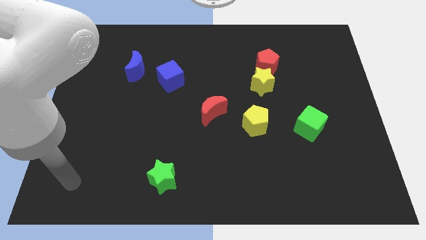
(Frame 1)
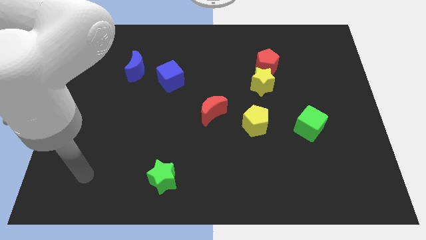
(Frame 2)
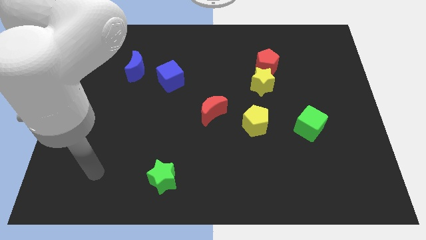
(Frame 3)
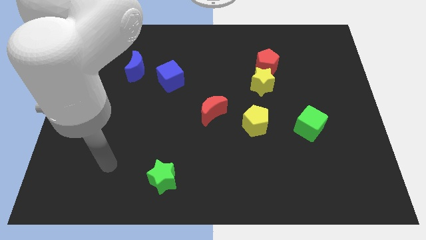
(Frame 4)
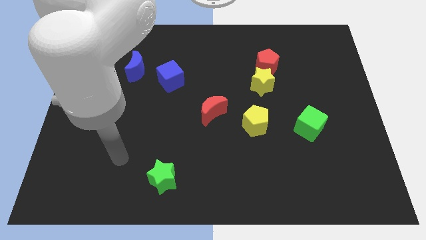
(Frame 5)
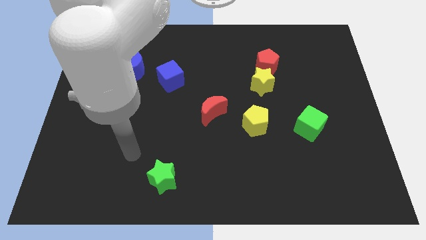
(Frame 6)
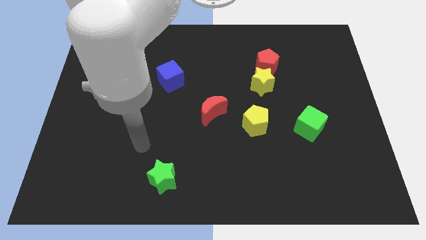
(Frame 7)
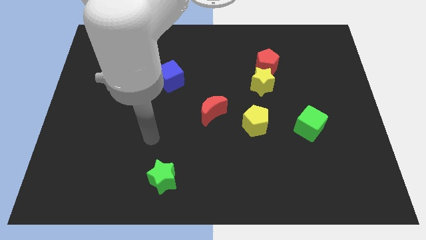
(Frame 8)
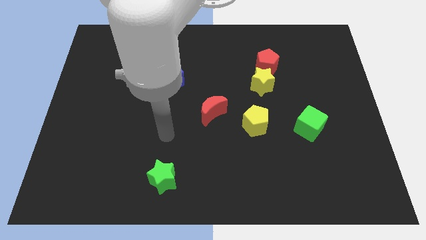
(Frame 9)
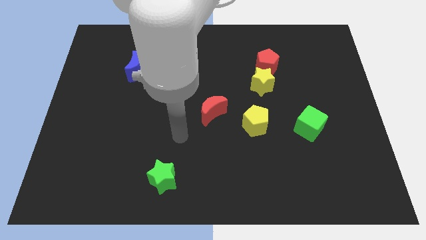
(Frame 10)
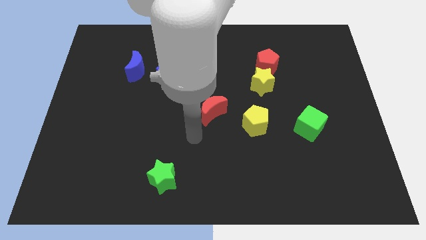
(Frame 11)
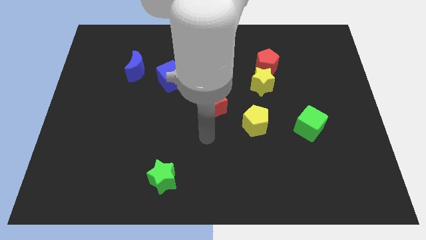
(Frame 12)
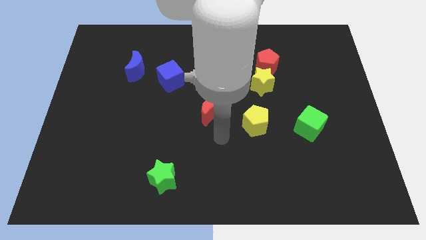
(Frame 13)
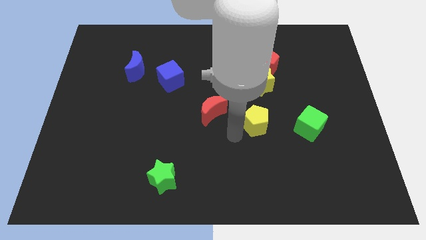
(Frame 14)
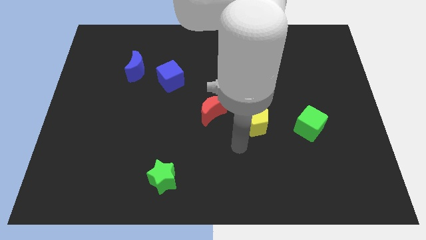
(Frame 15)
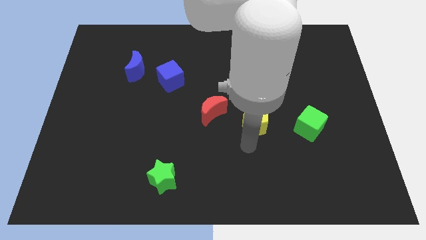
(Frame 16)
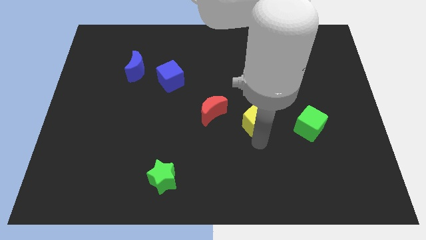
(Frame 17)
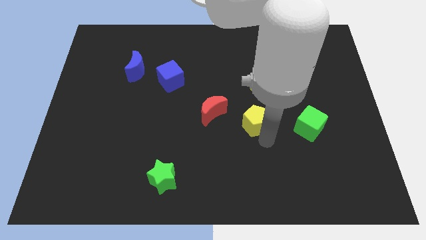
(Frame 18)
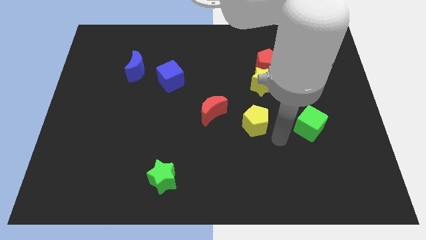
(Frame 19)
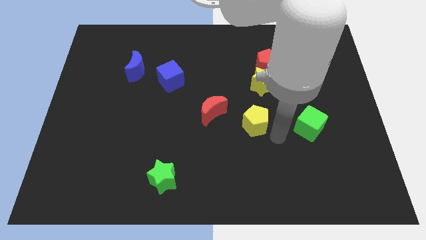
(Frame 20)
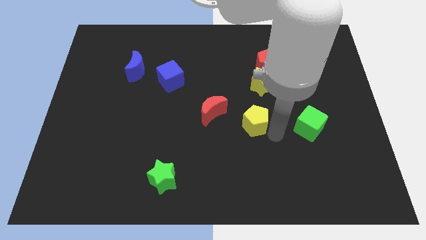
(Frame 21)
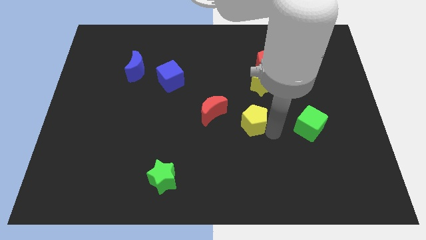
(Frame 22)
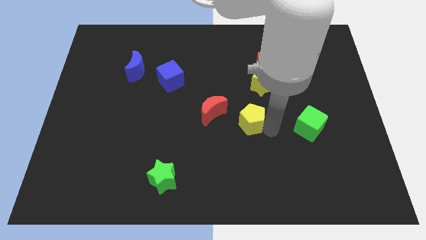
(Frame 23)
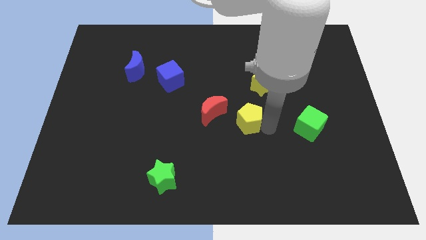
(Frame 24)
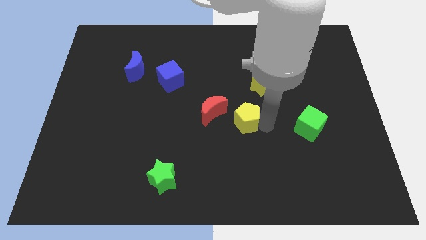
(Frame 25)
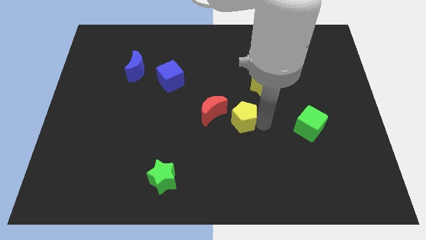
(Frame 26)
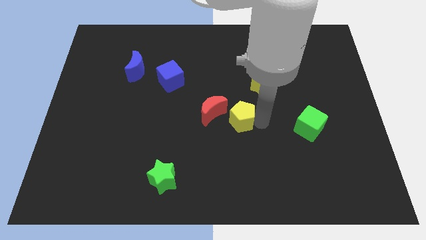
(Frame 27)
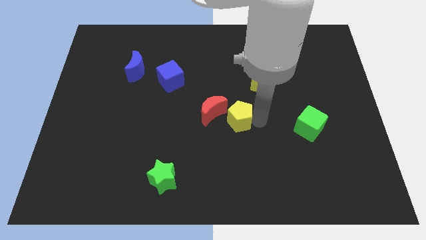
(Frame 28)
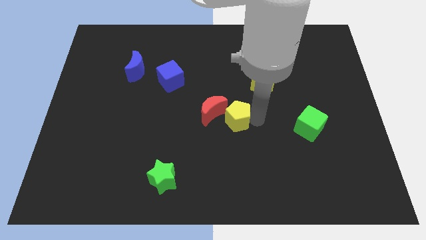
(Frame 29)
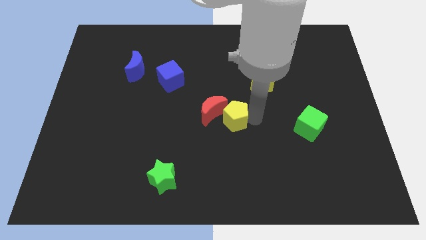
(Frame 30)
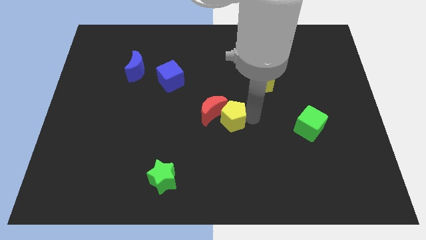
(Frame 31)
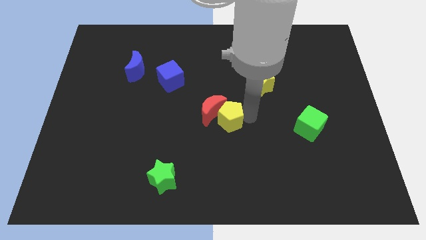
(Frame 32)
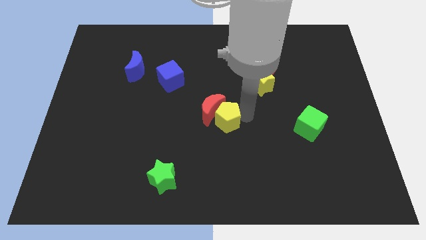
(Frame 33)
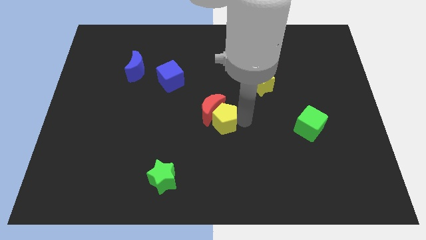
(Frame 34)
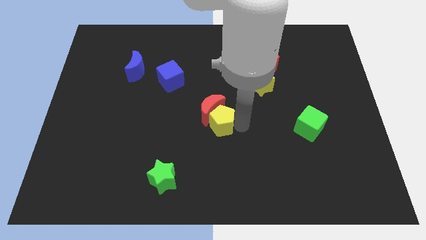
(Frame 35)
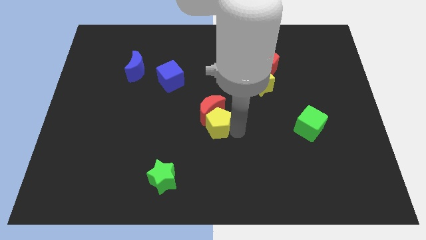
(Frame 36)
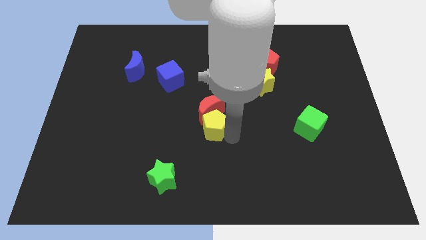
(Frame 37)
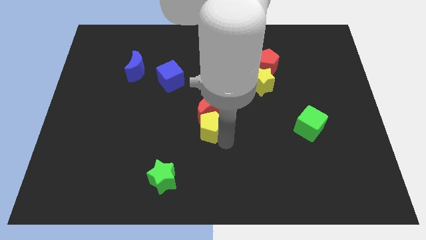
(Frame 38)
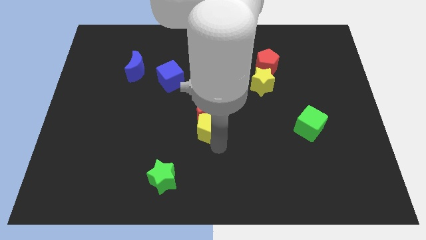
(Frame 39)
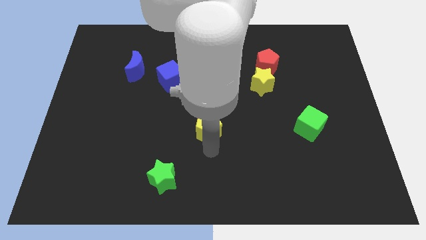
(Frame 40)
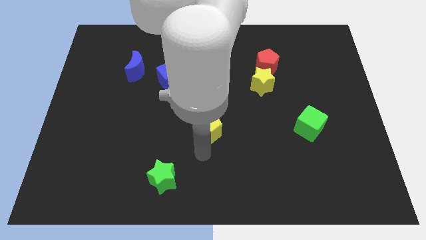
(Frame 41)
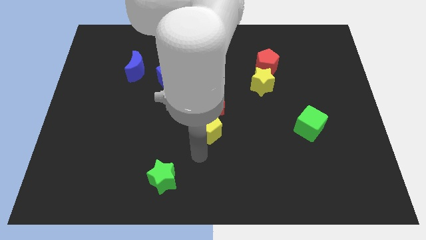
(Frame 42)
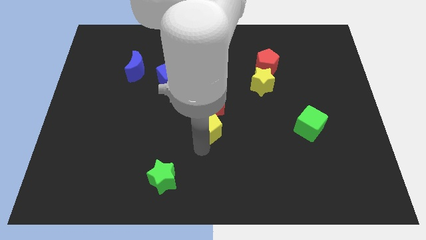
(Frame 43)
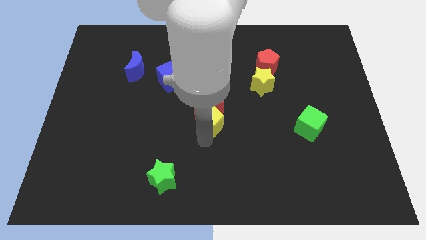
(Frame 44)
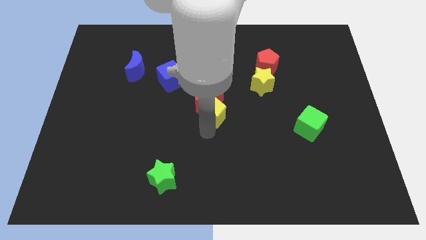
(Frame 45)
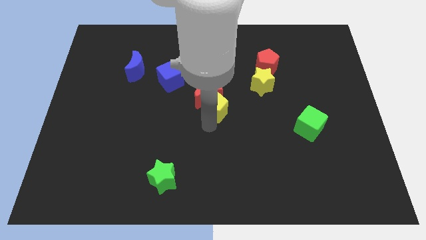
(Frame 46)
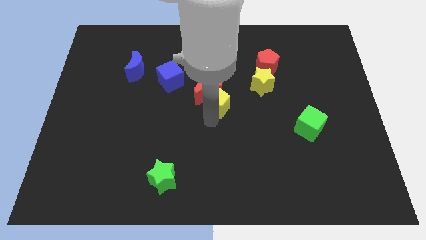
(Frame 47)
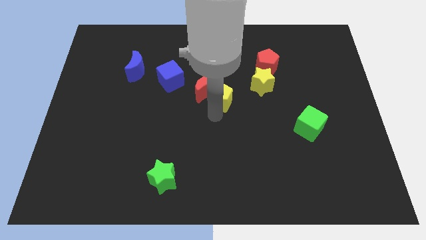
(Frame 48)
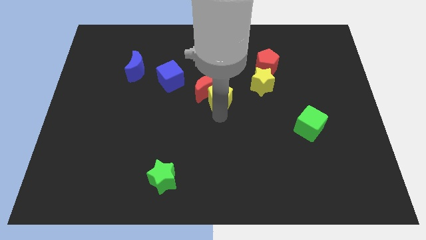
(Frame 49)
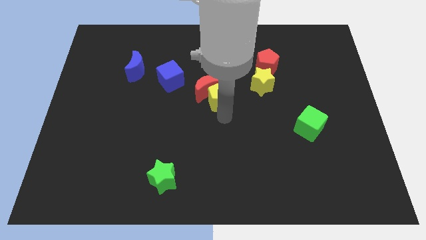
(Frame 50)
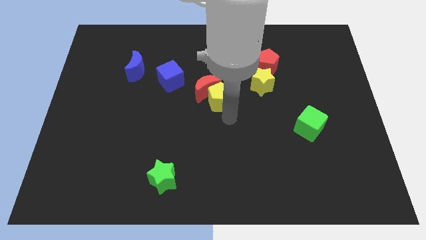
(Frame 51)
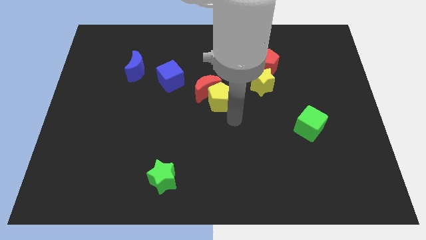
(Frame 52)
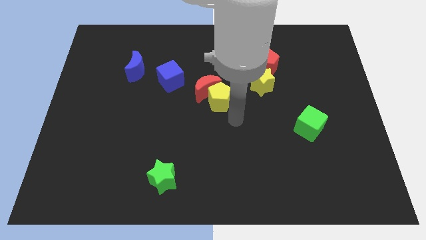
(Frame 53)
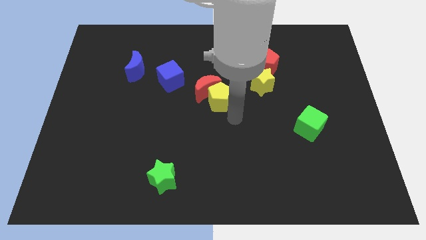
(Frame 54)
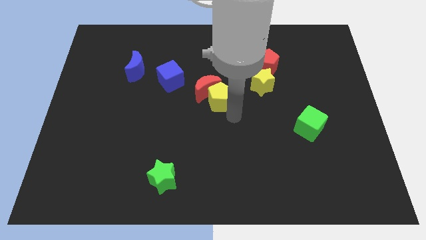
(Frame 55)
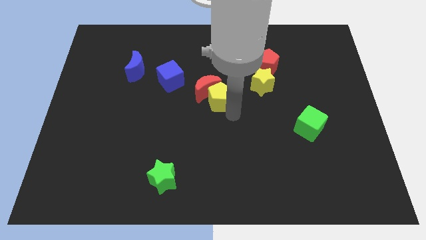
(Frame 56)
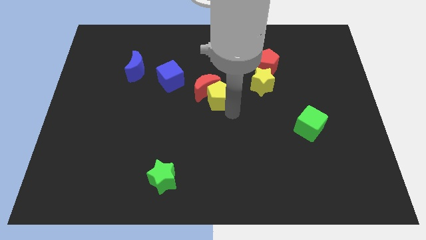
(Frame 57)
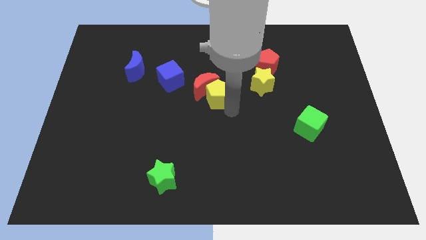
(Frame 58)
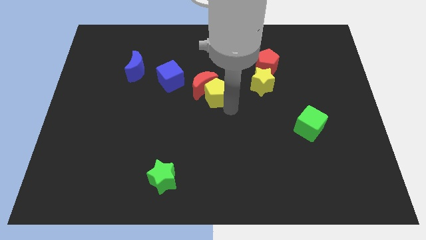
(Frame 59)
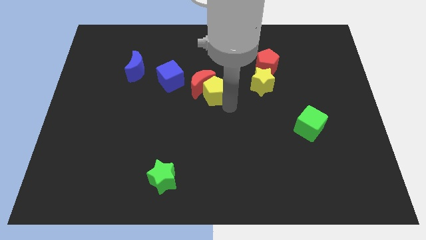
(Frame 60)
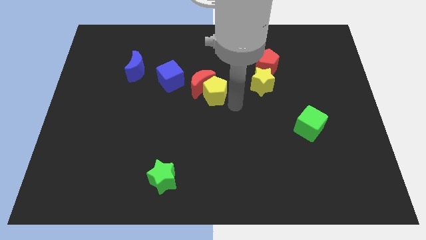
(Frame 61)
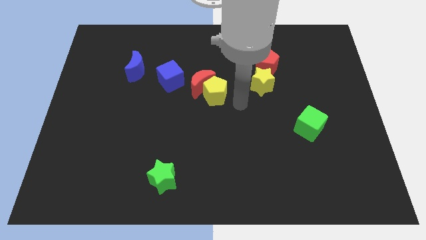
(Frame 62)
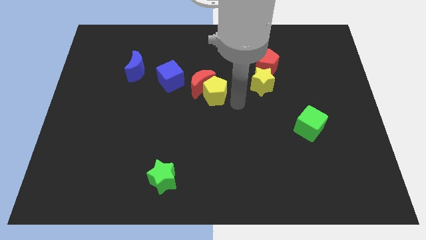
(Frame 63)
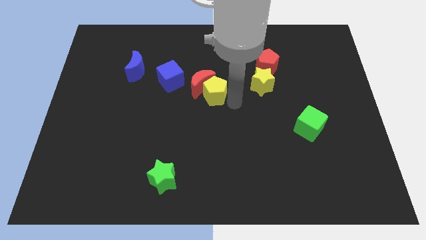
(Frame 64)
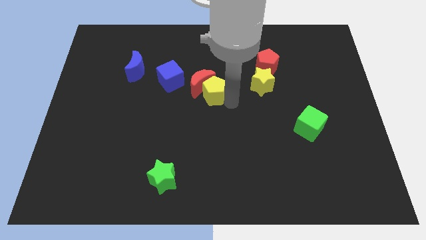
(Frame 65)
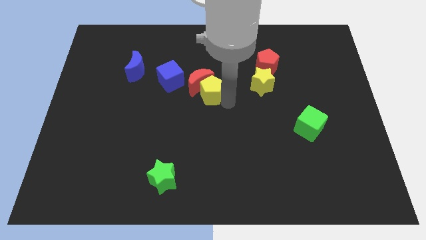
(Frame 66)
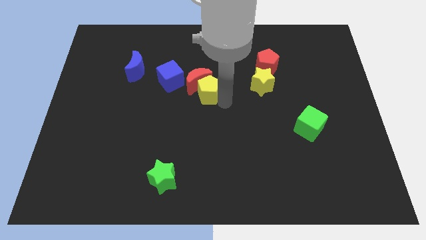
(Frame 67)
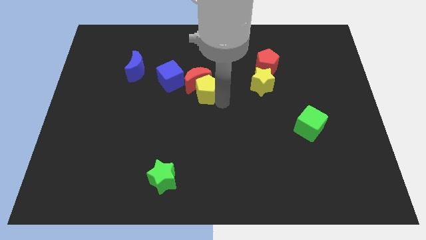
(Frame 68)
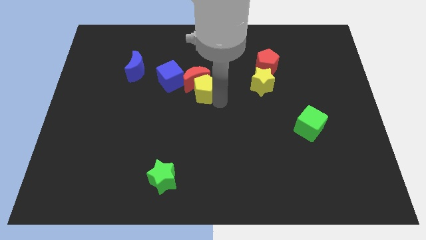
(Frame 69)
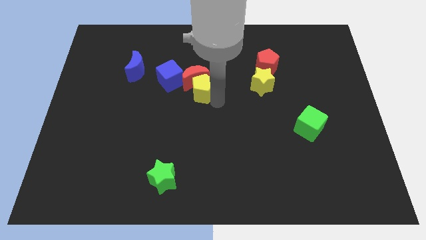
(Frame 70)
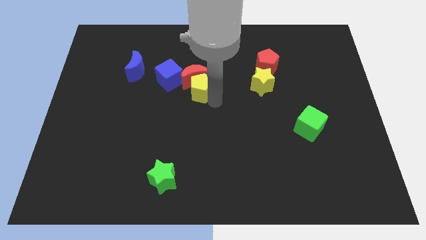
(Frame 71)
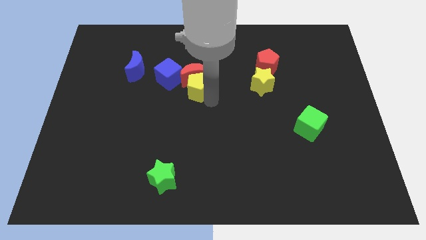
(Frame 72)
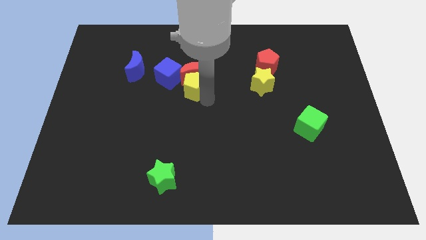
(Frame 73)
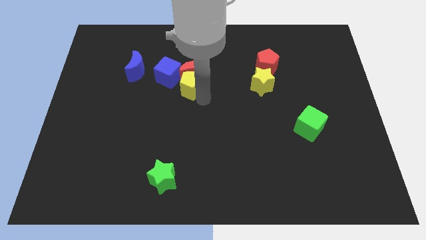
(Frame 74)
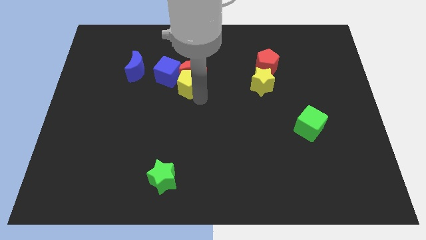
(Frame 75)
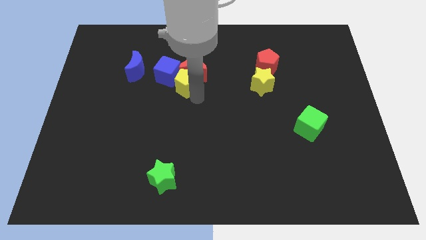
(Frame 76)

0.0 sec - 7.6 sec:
slide the yellow pentagon to the blue cube
